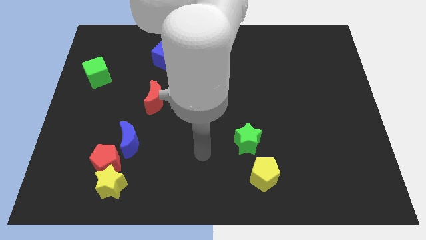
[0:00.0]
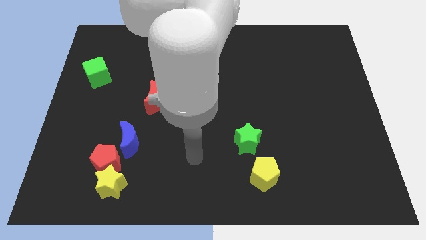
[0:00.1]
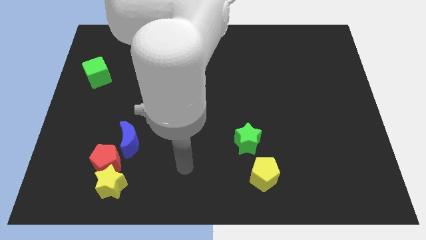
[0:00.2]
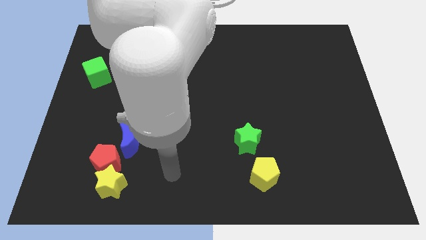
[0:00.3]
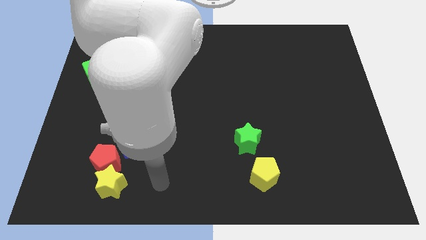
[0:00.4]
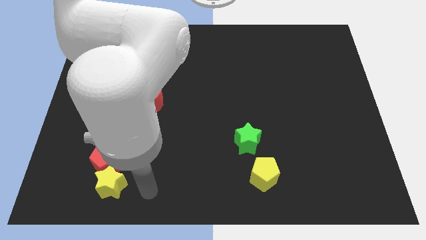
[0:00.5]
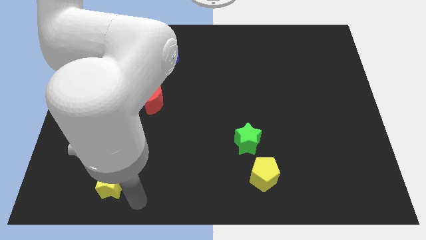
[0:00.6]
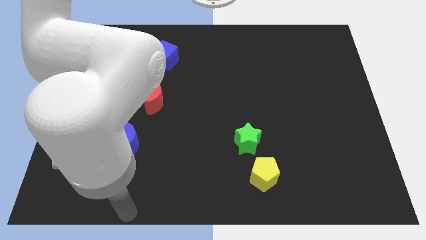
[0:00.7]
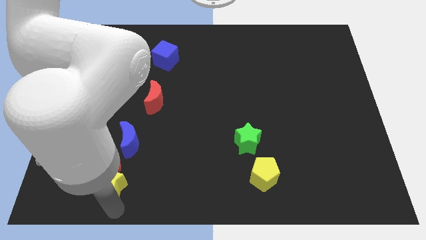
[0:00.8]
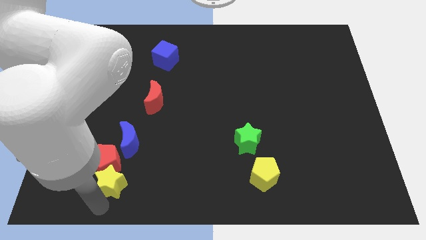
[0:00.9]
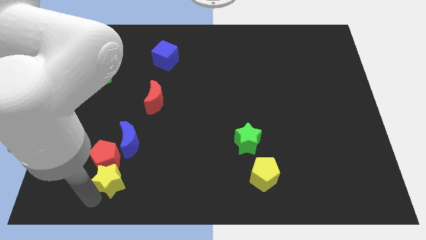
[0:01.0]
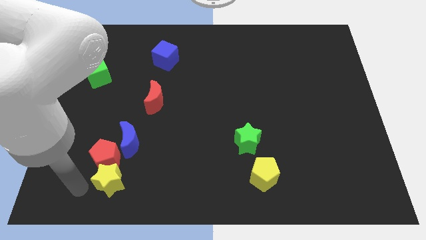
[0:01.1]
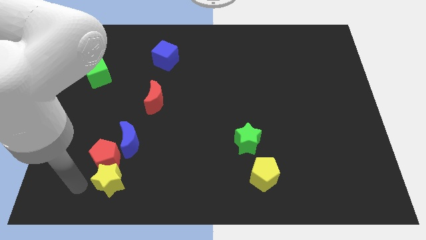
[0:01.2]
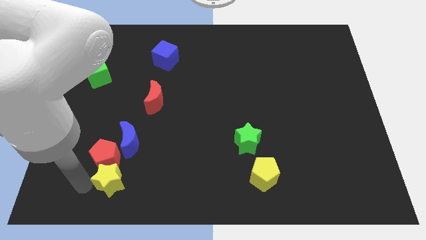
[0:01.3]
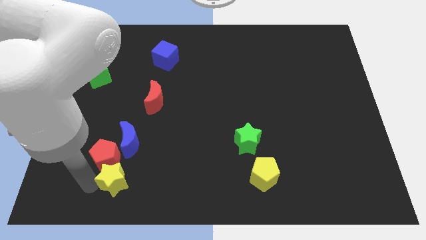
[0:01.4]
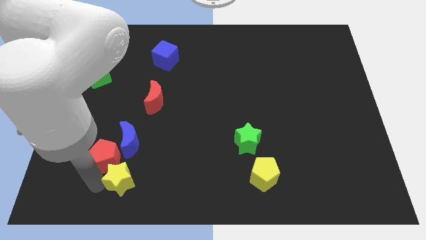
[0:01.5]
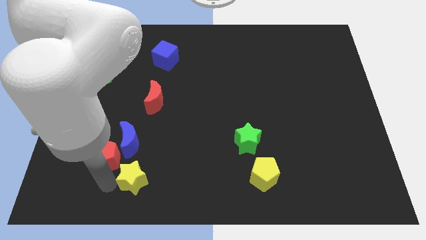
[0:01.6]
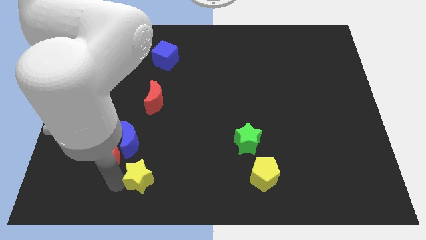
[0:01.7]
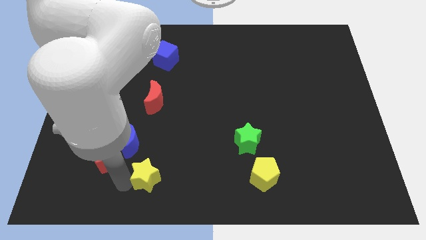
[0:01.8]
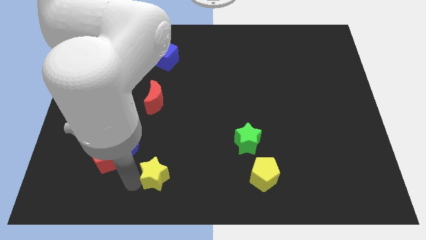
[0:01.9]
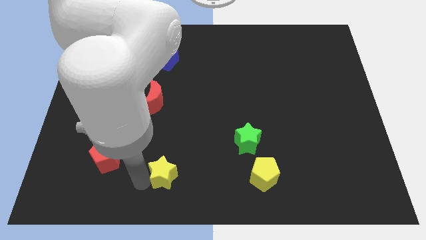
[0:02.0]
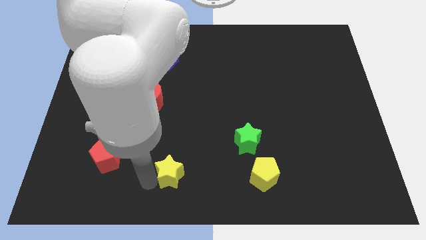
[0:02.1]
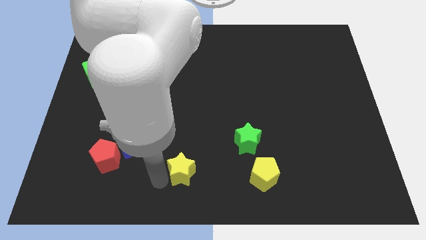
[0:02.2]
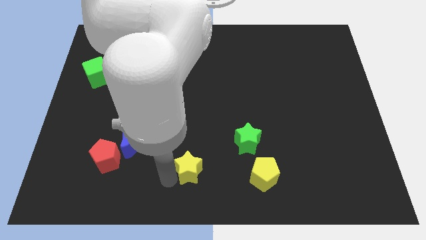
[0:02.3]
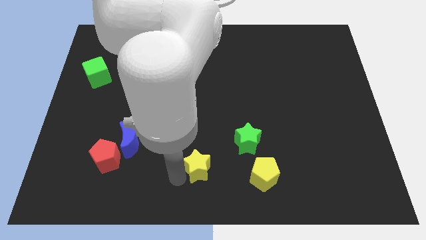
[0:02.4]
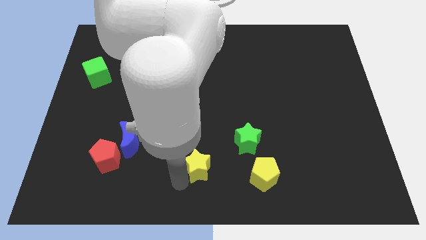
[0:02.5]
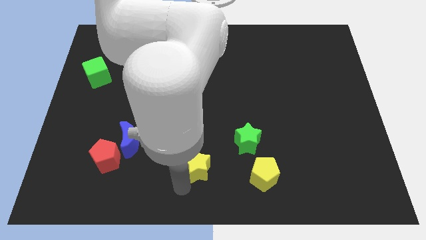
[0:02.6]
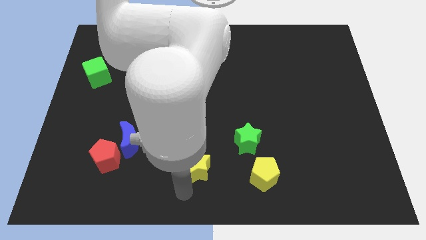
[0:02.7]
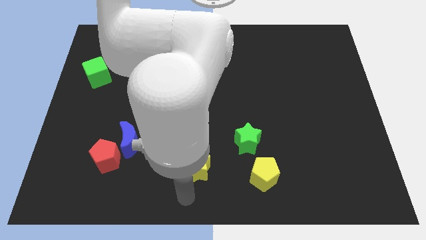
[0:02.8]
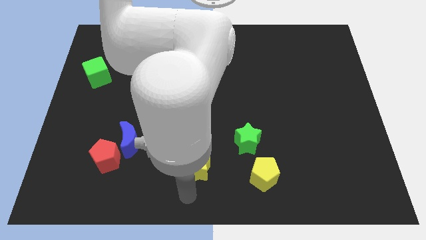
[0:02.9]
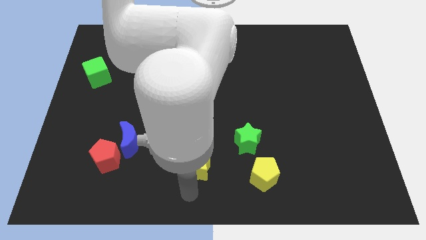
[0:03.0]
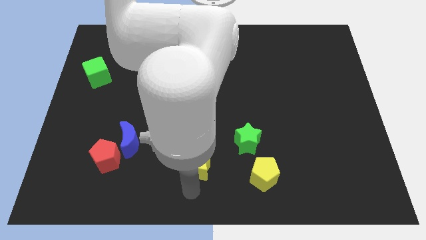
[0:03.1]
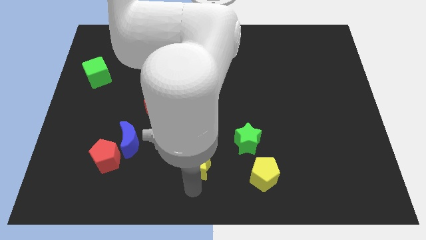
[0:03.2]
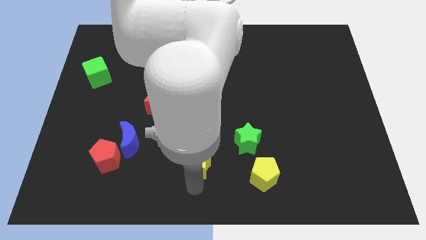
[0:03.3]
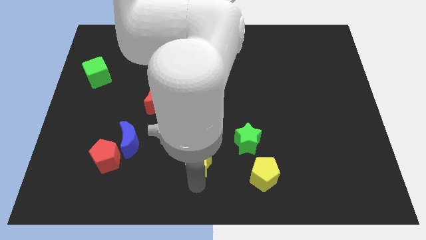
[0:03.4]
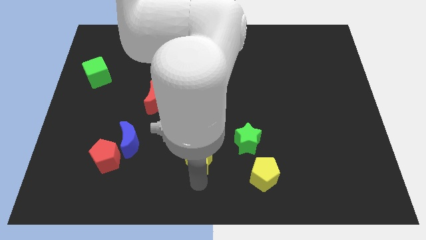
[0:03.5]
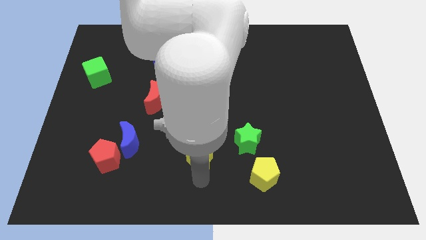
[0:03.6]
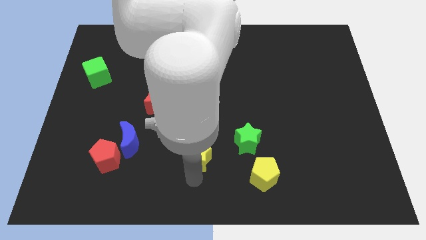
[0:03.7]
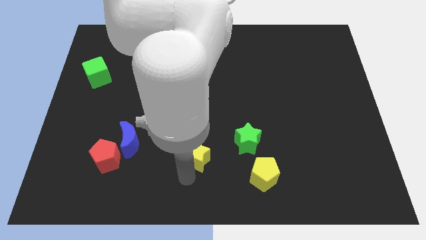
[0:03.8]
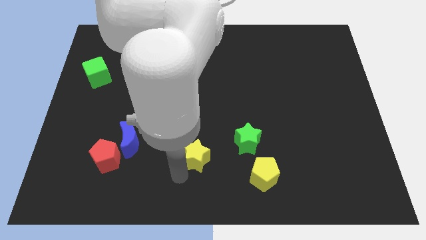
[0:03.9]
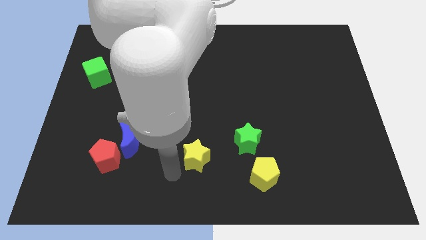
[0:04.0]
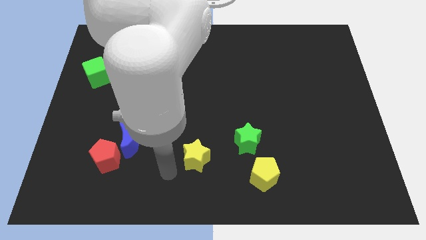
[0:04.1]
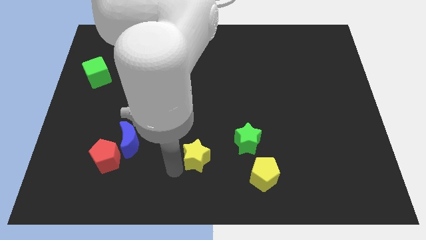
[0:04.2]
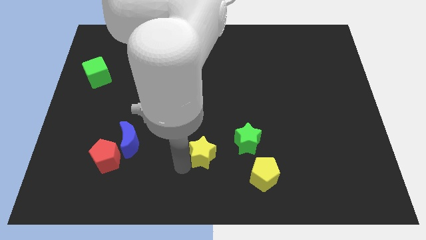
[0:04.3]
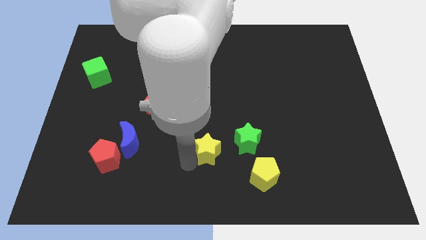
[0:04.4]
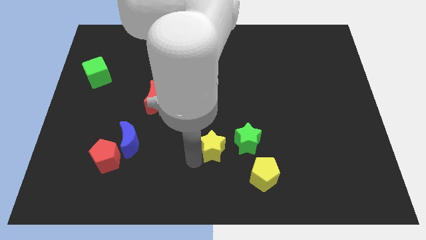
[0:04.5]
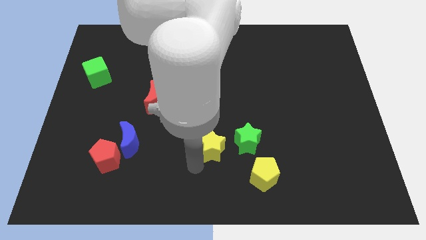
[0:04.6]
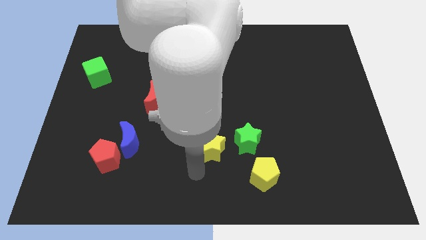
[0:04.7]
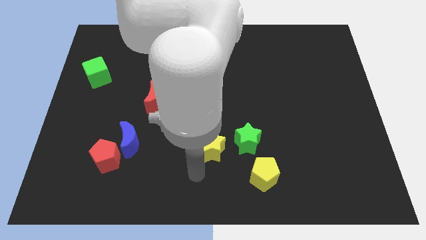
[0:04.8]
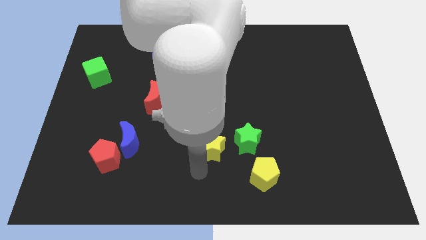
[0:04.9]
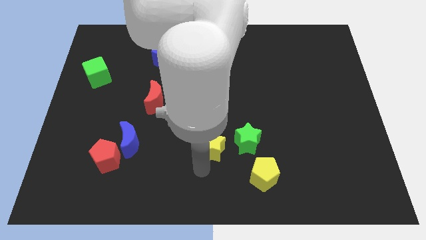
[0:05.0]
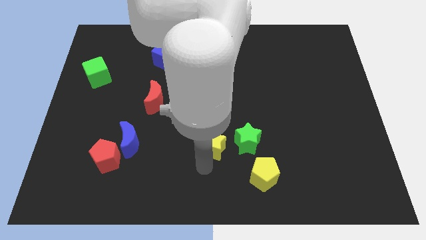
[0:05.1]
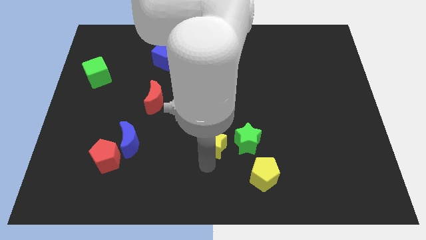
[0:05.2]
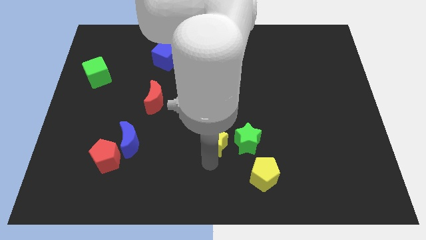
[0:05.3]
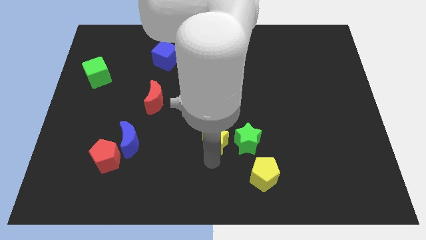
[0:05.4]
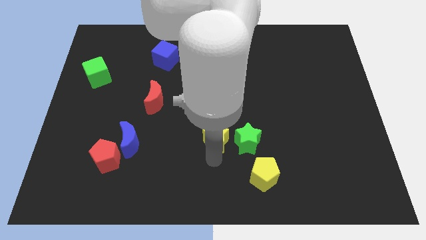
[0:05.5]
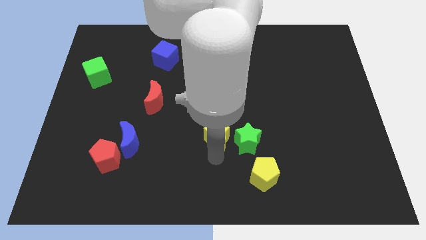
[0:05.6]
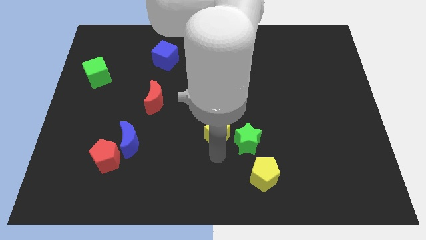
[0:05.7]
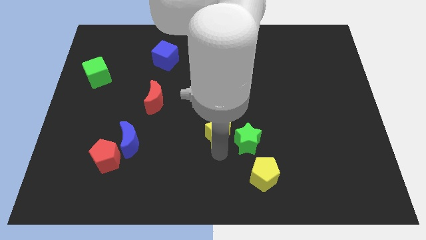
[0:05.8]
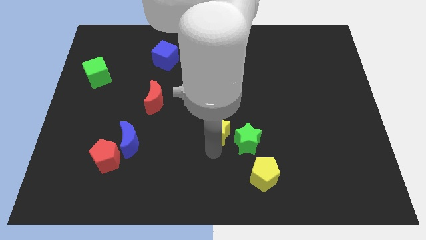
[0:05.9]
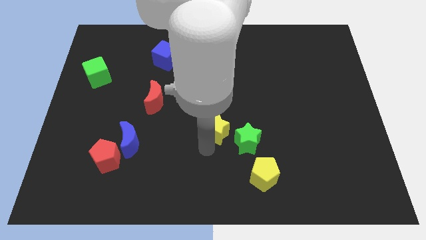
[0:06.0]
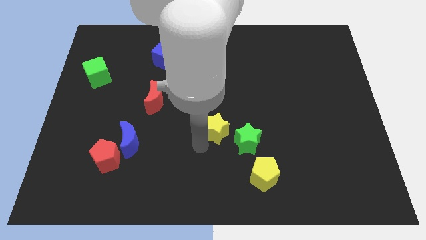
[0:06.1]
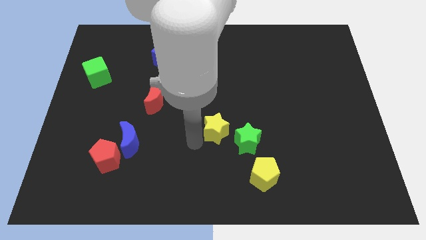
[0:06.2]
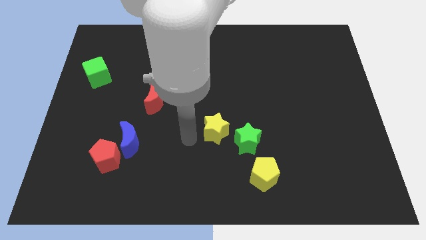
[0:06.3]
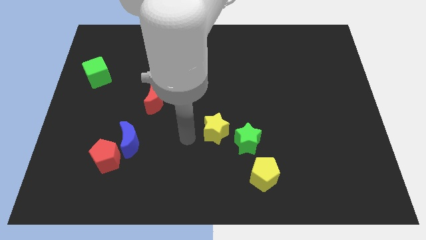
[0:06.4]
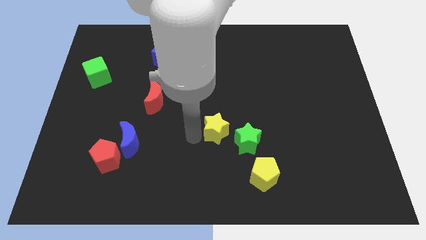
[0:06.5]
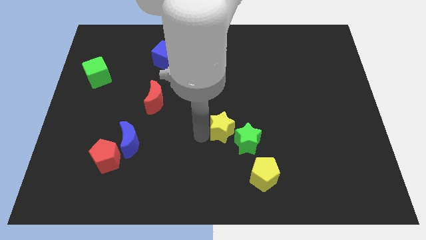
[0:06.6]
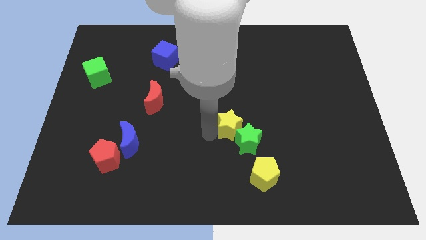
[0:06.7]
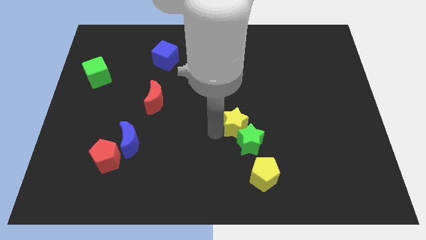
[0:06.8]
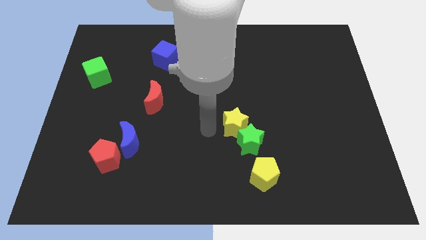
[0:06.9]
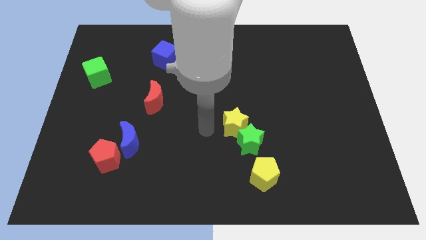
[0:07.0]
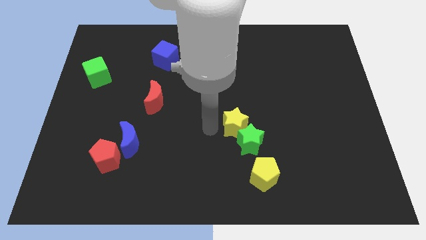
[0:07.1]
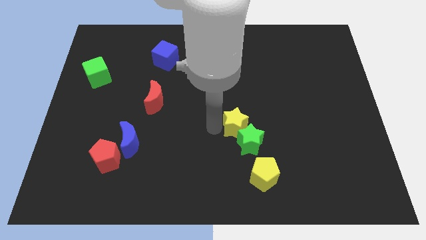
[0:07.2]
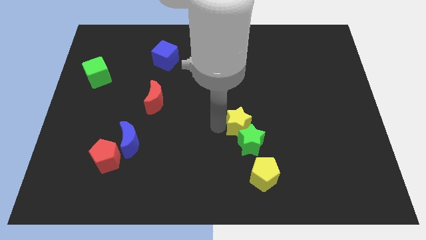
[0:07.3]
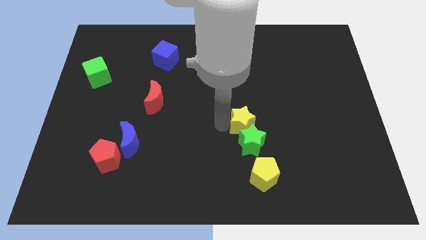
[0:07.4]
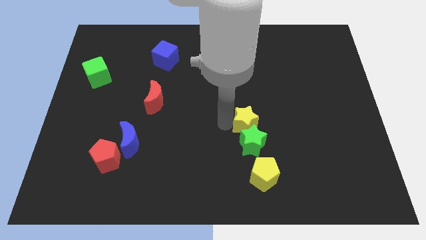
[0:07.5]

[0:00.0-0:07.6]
put the yellow star diagonally up and to the right of the green star
